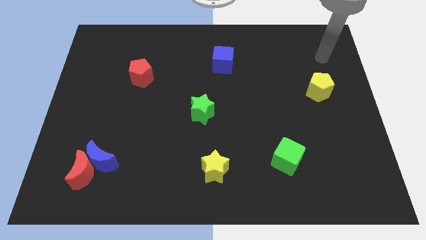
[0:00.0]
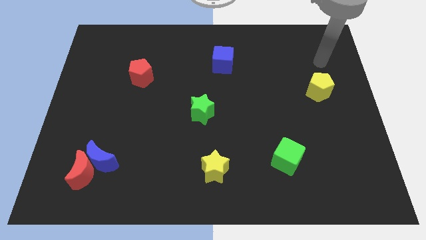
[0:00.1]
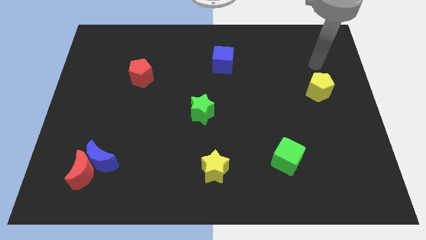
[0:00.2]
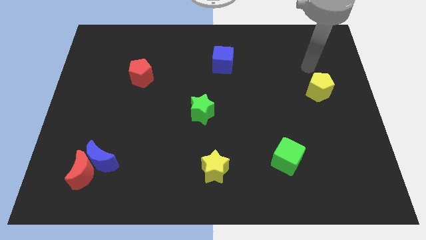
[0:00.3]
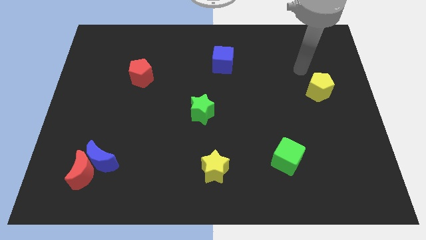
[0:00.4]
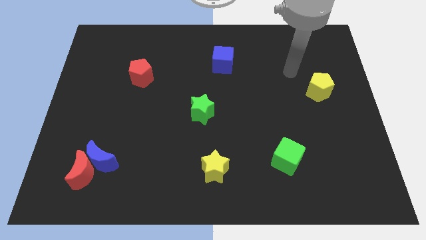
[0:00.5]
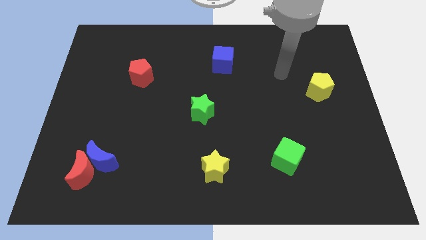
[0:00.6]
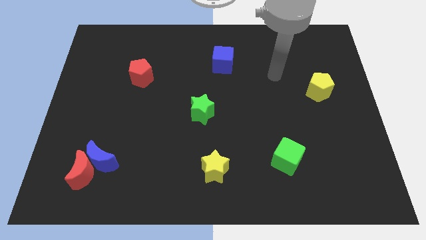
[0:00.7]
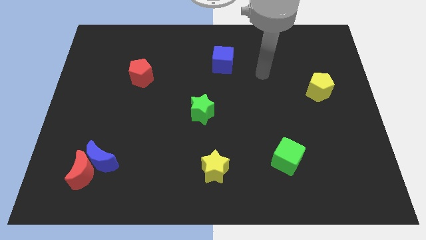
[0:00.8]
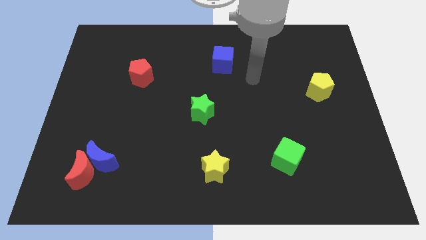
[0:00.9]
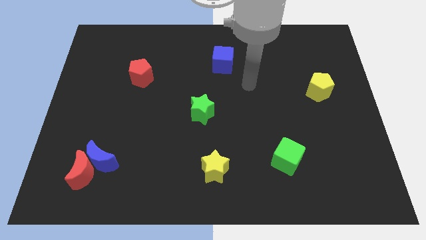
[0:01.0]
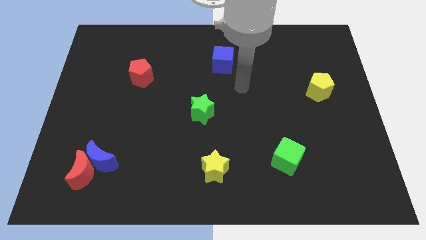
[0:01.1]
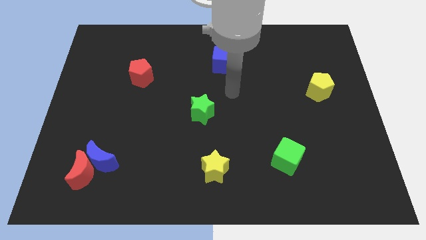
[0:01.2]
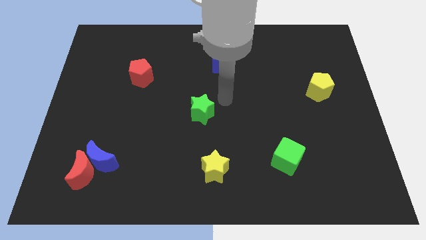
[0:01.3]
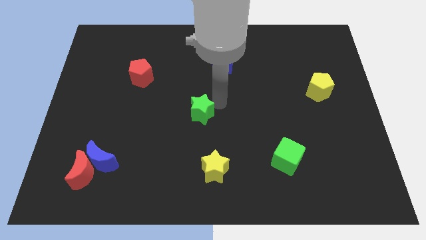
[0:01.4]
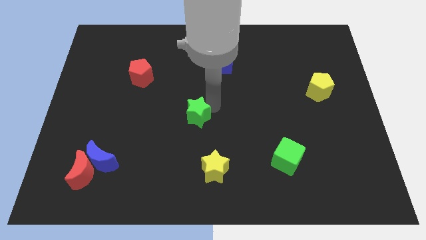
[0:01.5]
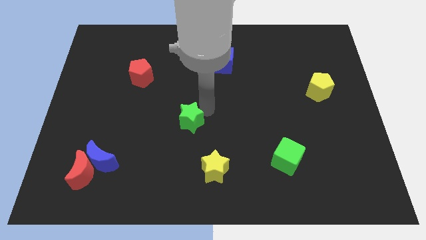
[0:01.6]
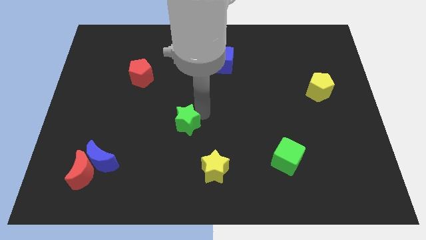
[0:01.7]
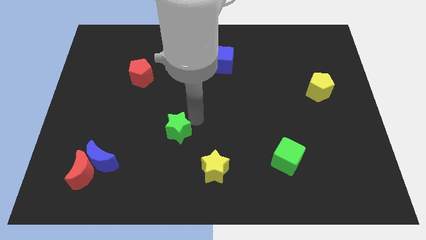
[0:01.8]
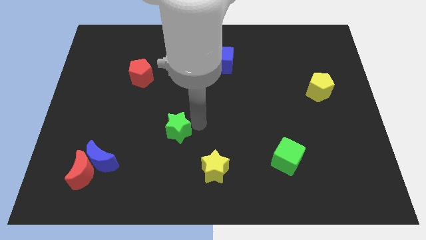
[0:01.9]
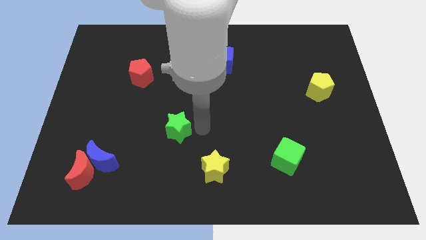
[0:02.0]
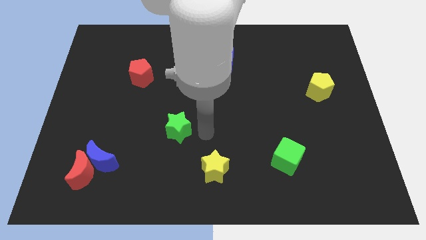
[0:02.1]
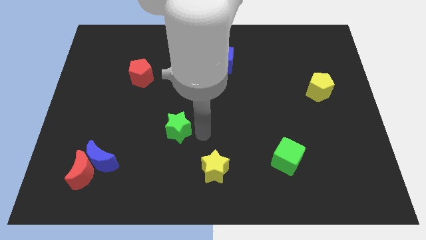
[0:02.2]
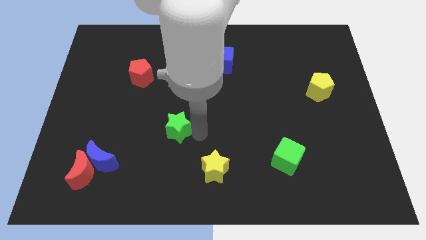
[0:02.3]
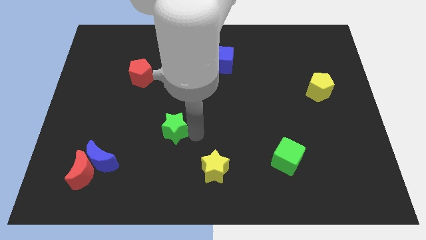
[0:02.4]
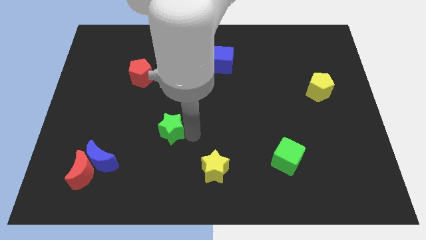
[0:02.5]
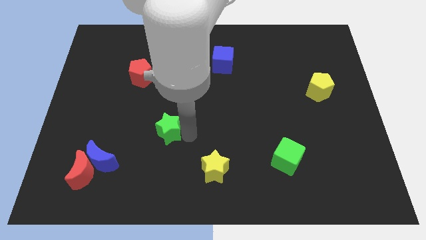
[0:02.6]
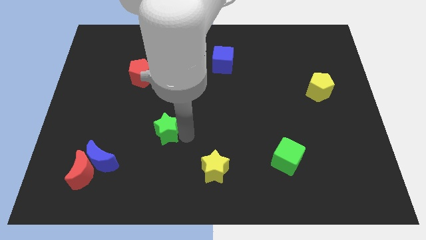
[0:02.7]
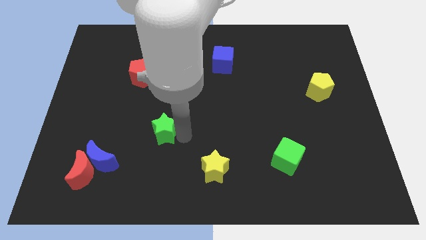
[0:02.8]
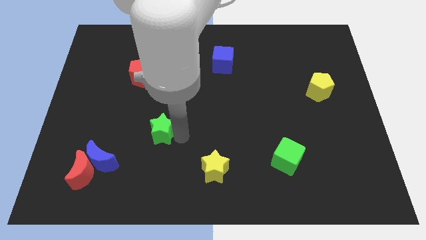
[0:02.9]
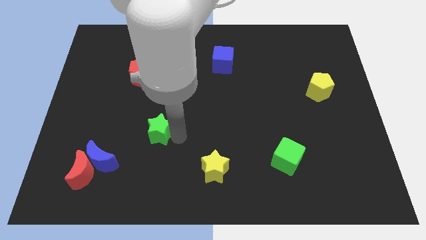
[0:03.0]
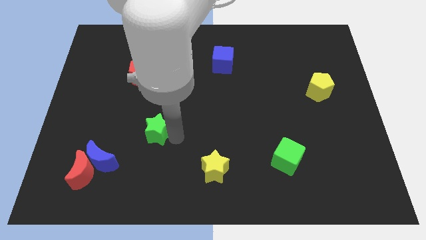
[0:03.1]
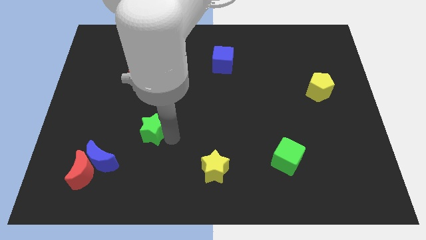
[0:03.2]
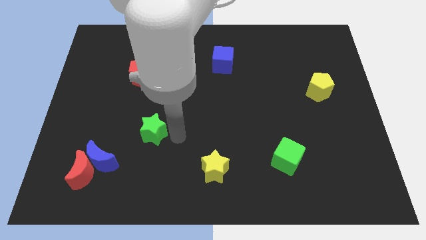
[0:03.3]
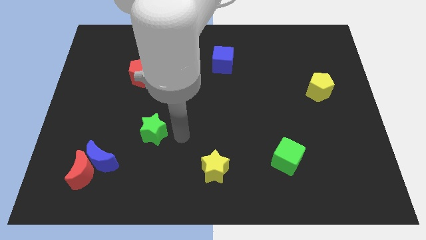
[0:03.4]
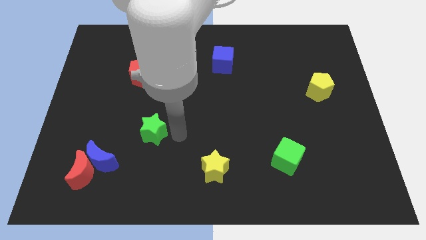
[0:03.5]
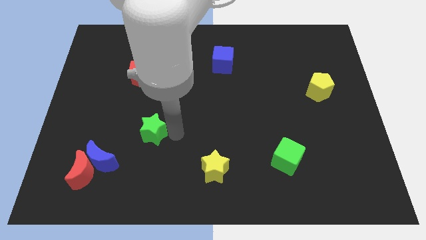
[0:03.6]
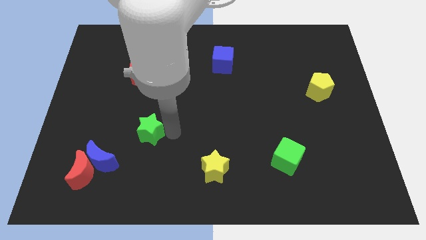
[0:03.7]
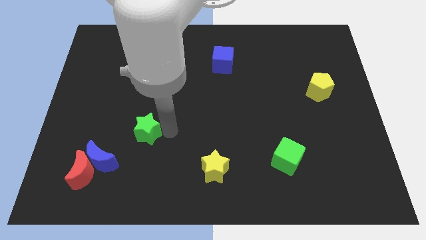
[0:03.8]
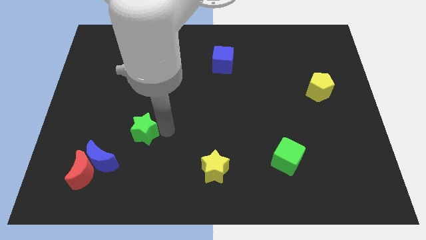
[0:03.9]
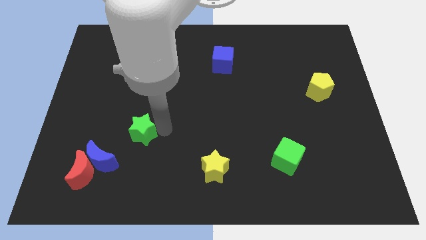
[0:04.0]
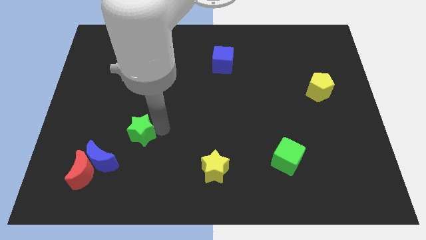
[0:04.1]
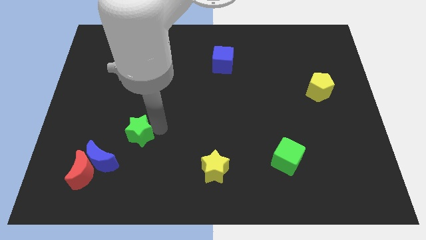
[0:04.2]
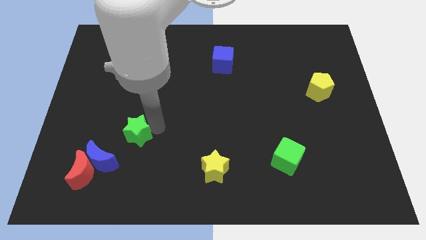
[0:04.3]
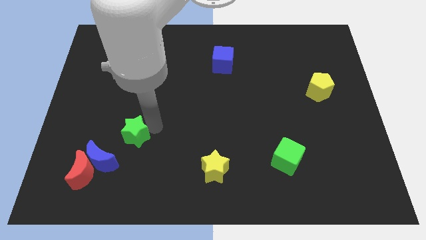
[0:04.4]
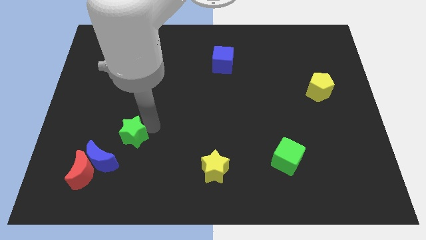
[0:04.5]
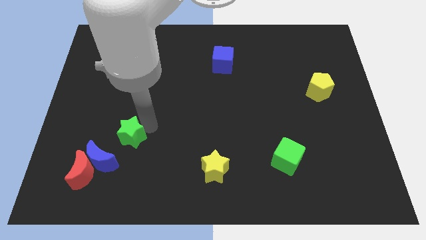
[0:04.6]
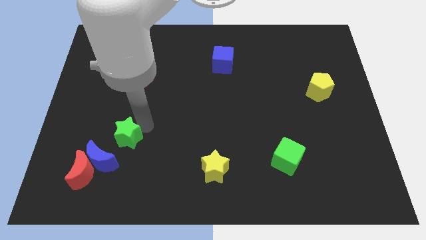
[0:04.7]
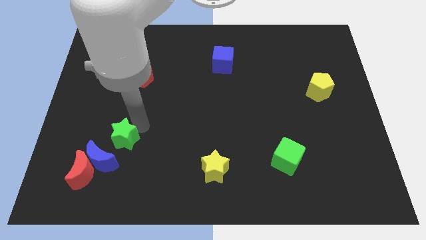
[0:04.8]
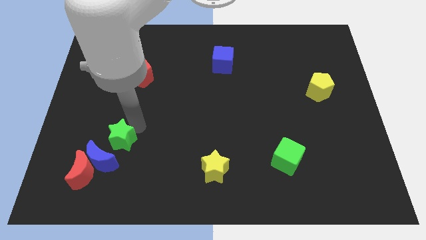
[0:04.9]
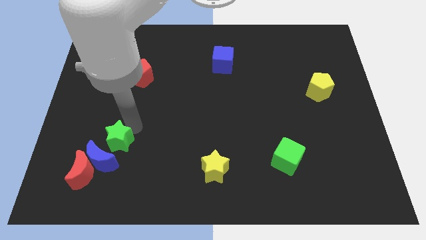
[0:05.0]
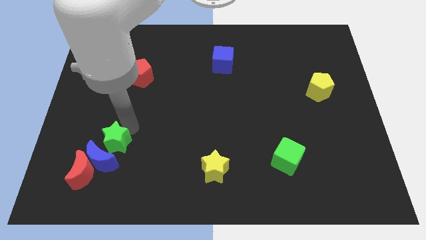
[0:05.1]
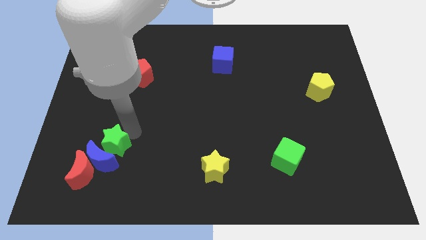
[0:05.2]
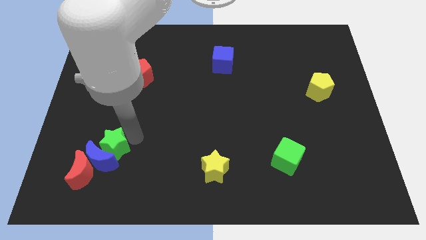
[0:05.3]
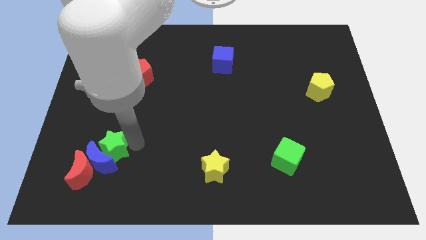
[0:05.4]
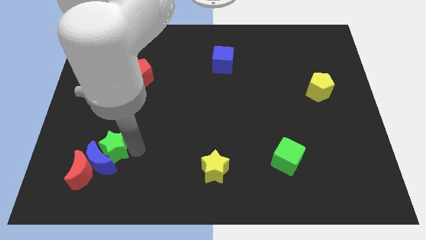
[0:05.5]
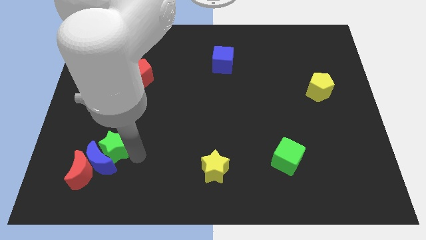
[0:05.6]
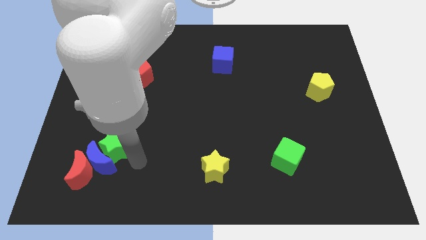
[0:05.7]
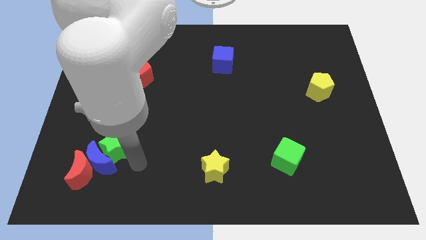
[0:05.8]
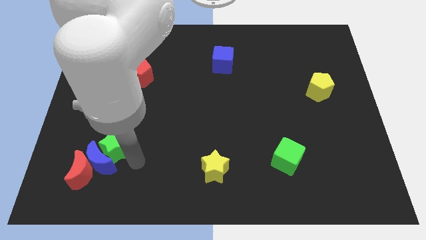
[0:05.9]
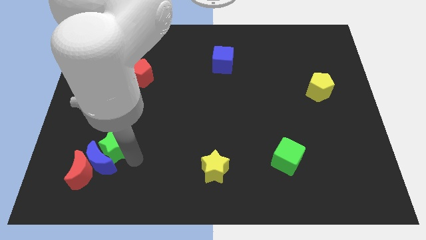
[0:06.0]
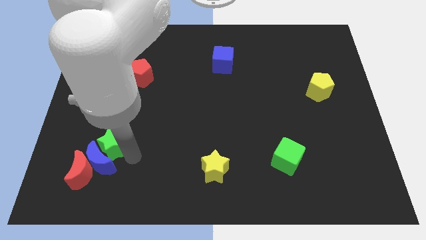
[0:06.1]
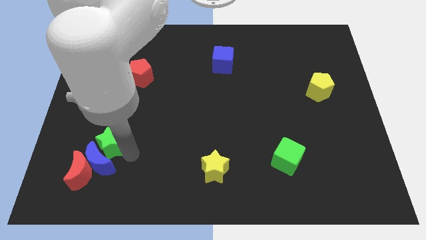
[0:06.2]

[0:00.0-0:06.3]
push the green star above the red moon

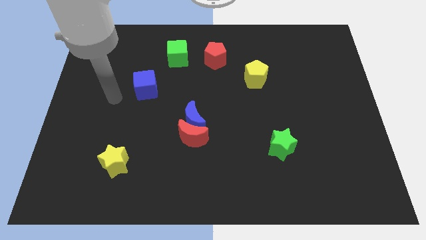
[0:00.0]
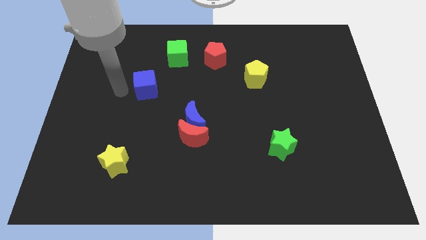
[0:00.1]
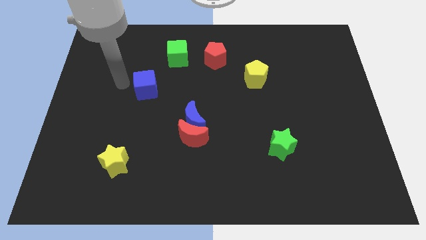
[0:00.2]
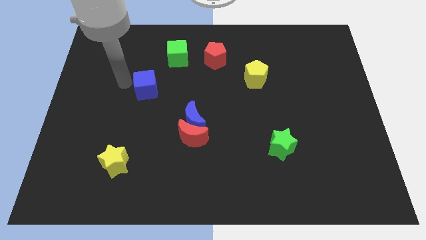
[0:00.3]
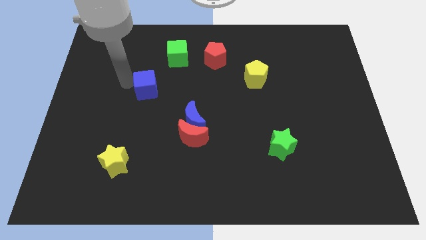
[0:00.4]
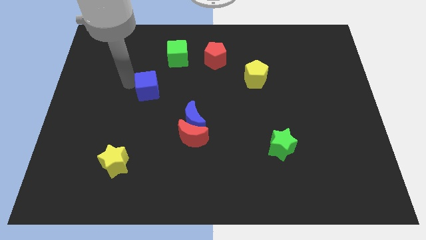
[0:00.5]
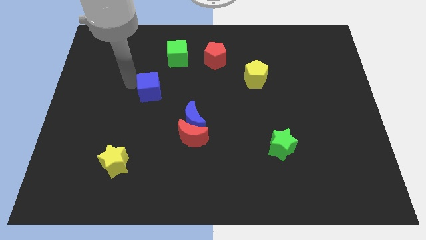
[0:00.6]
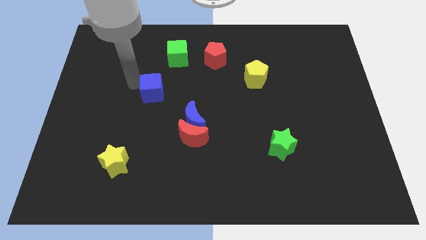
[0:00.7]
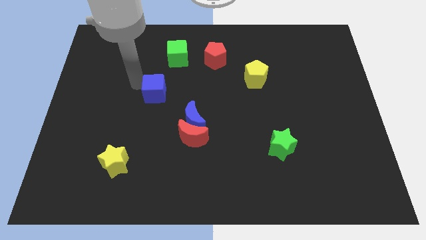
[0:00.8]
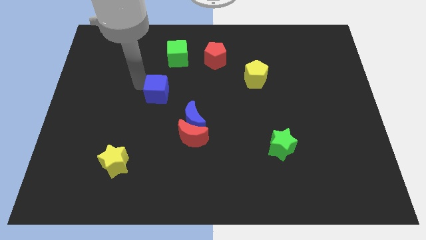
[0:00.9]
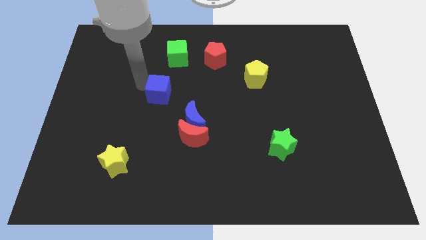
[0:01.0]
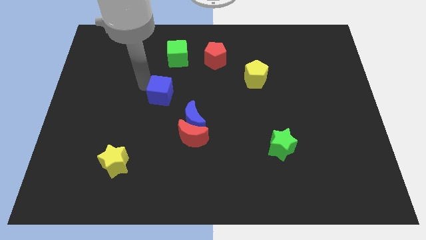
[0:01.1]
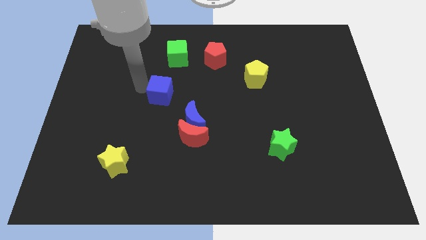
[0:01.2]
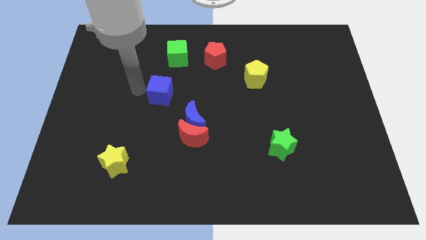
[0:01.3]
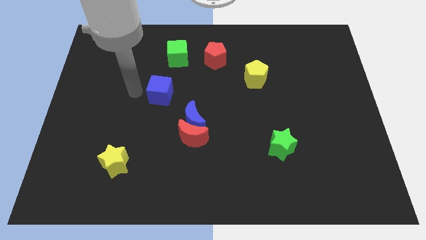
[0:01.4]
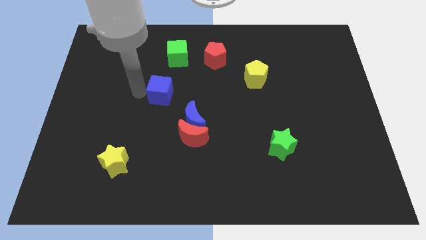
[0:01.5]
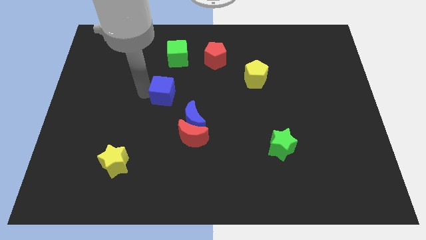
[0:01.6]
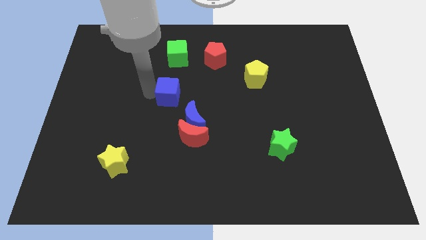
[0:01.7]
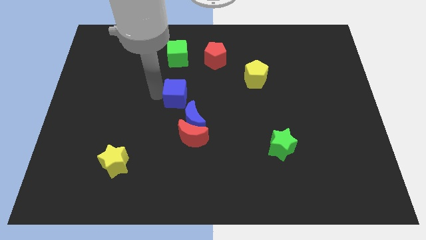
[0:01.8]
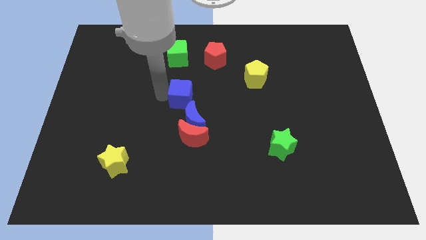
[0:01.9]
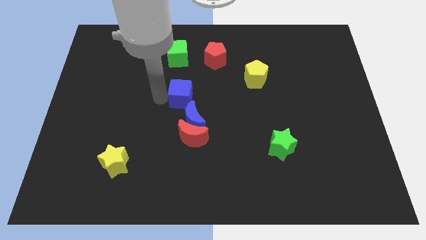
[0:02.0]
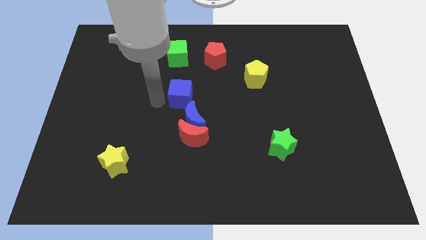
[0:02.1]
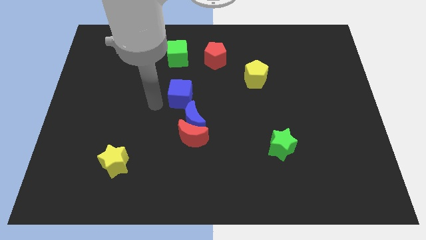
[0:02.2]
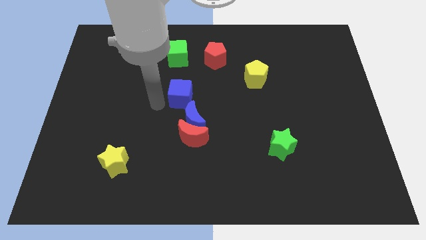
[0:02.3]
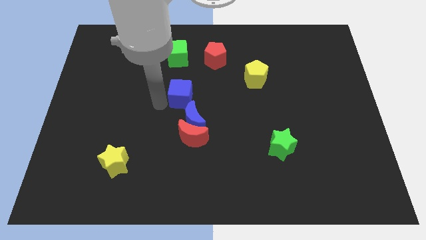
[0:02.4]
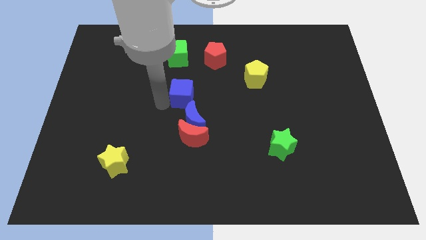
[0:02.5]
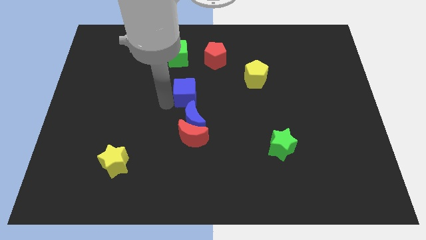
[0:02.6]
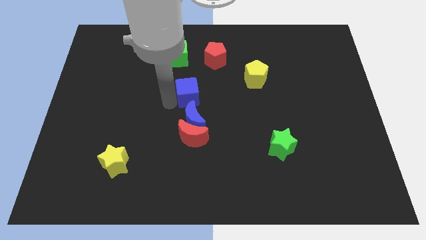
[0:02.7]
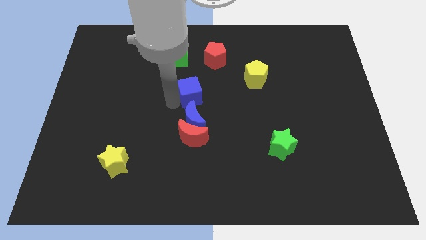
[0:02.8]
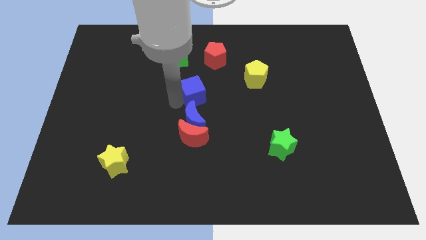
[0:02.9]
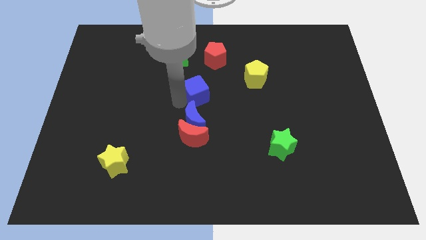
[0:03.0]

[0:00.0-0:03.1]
put the blue cube to the bottom side of the red pentagon
